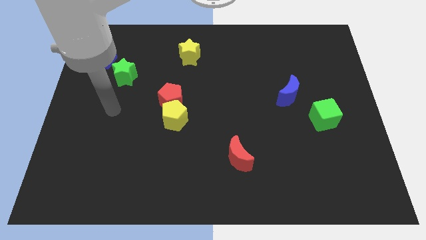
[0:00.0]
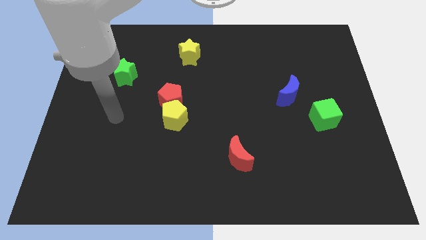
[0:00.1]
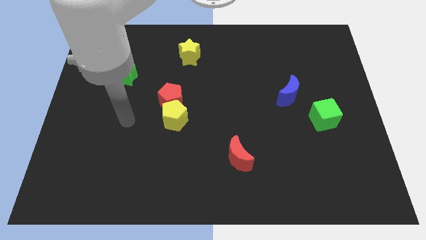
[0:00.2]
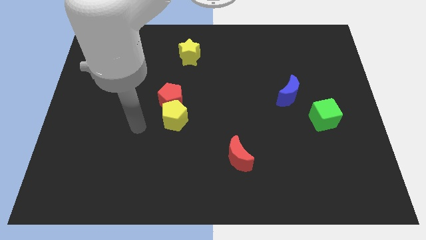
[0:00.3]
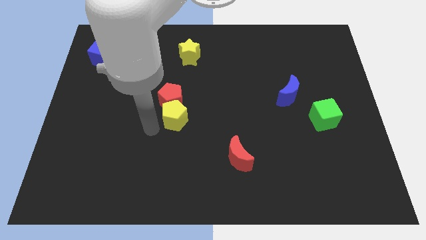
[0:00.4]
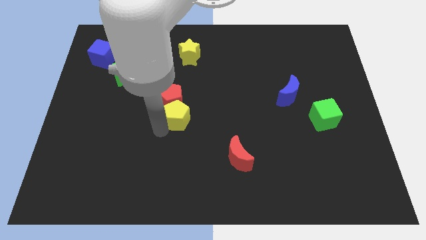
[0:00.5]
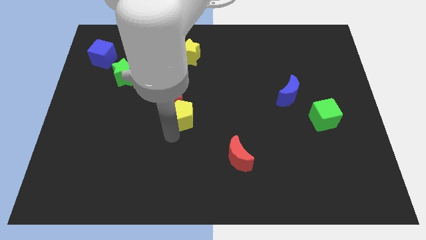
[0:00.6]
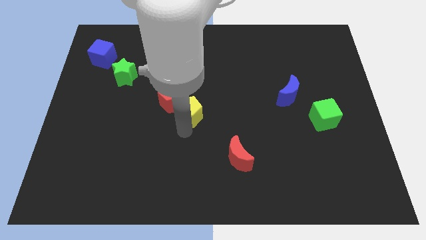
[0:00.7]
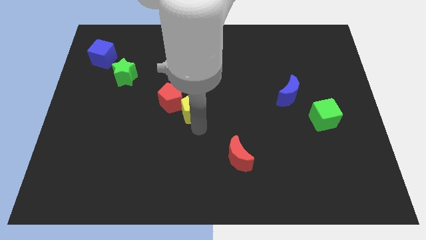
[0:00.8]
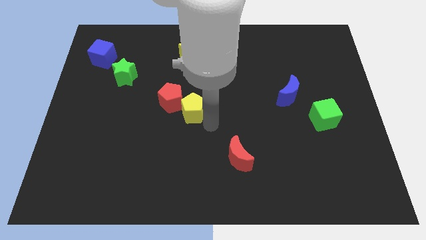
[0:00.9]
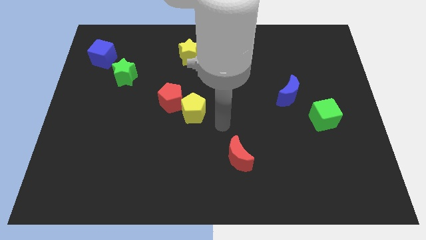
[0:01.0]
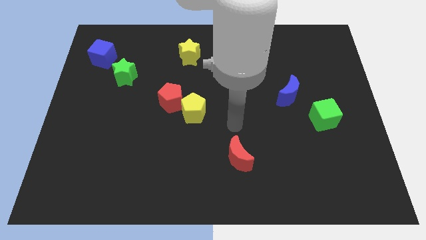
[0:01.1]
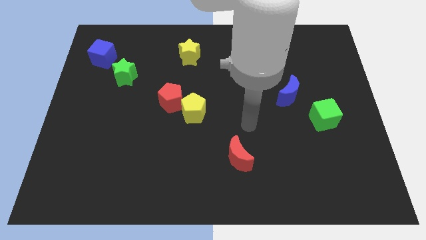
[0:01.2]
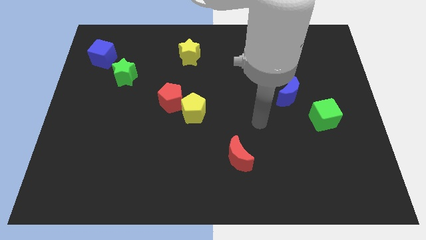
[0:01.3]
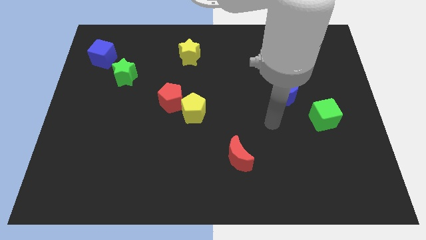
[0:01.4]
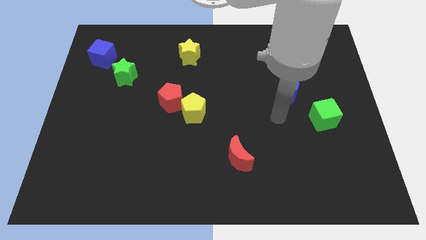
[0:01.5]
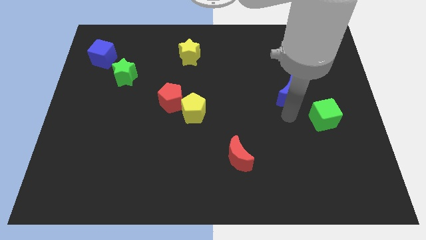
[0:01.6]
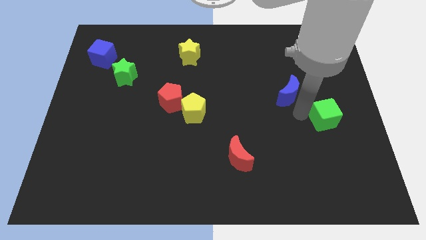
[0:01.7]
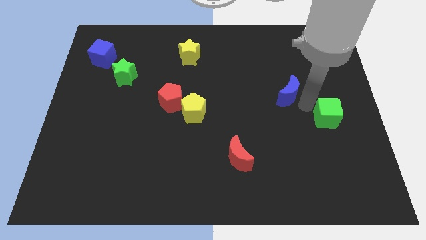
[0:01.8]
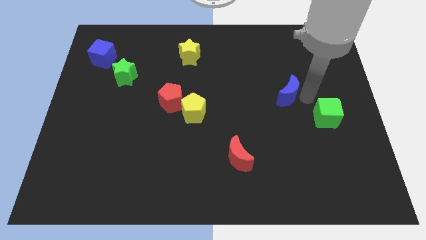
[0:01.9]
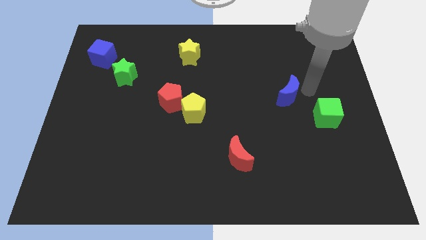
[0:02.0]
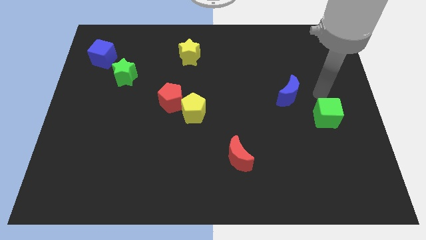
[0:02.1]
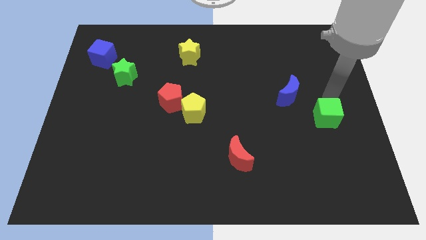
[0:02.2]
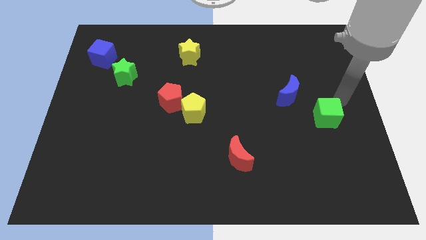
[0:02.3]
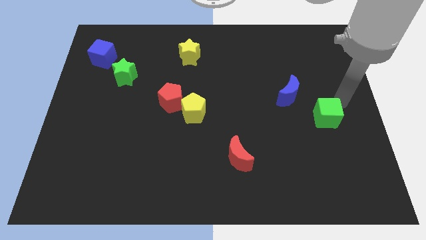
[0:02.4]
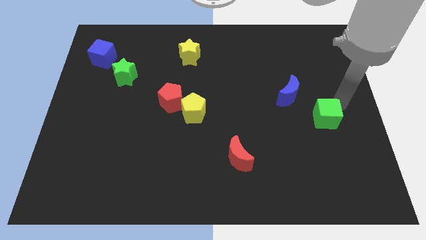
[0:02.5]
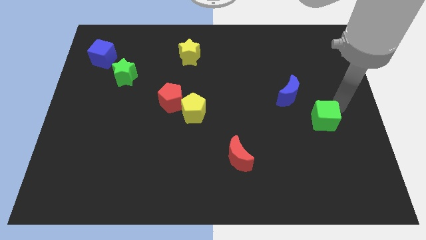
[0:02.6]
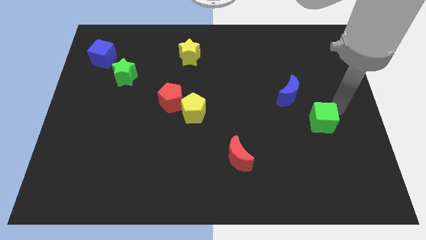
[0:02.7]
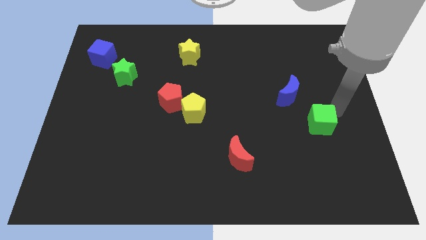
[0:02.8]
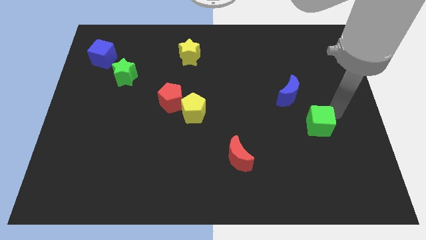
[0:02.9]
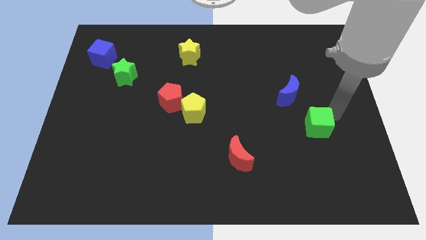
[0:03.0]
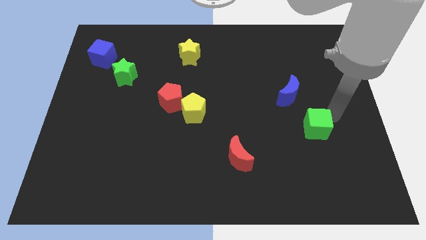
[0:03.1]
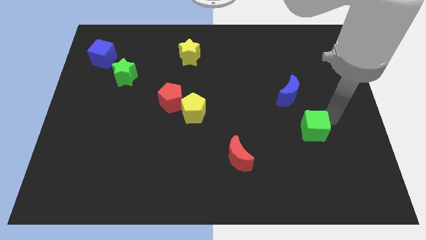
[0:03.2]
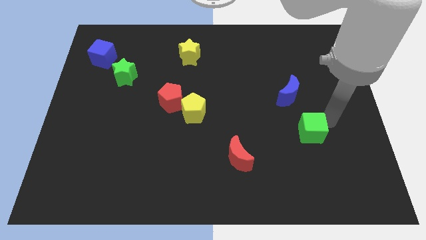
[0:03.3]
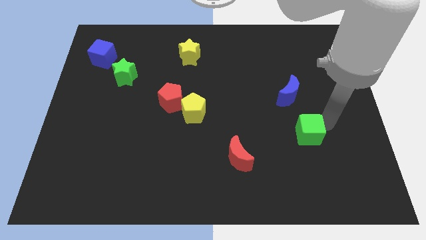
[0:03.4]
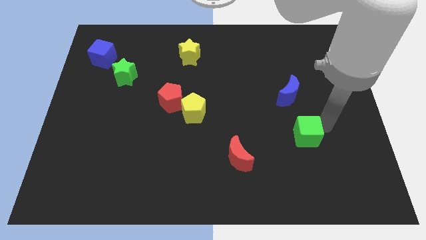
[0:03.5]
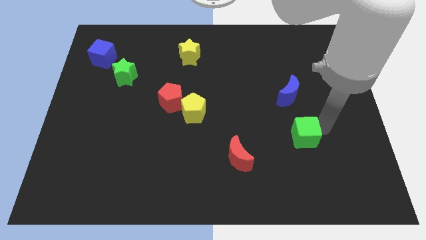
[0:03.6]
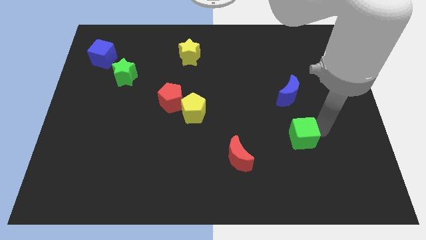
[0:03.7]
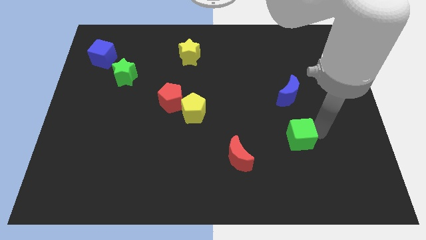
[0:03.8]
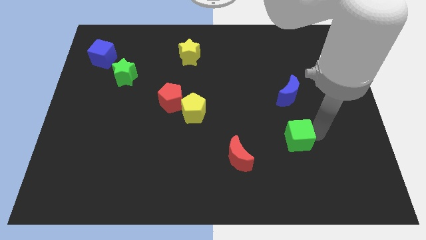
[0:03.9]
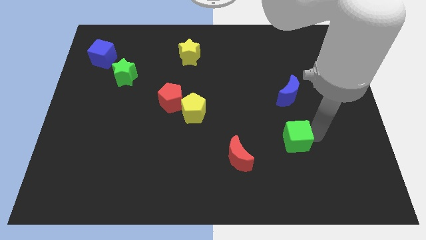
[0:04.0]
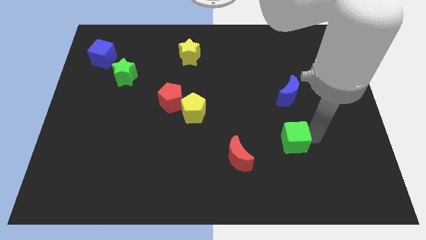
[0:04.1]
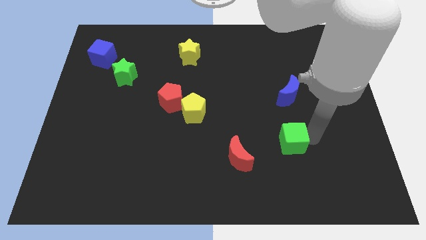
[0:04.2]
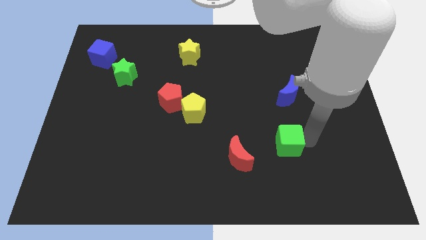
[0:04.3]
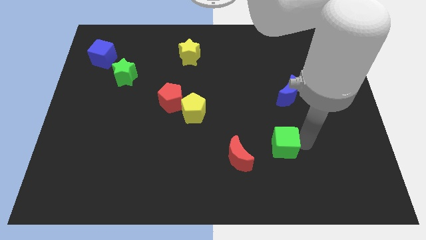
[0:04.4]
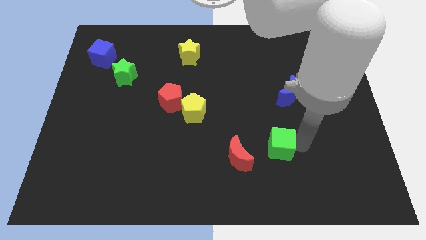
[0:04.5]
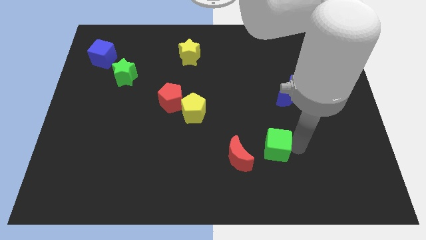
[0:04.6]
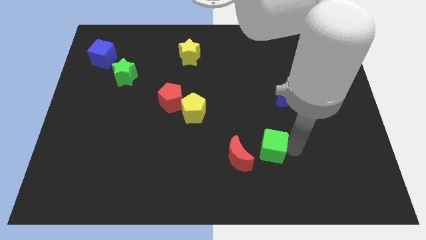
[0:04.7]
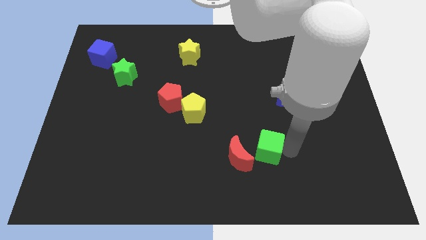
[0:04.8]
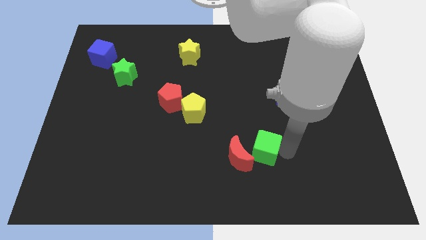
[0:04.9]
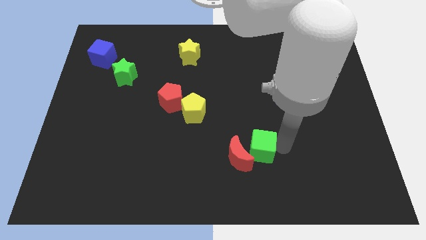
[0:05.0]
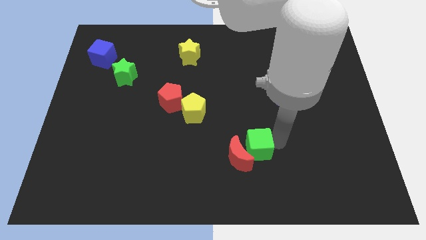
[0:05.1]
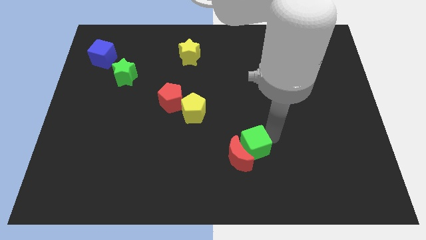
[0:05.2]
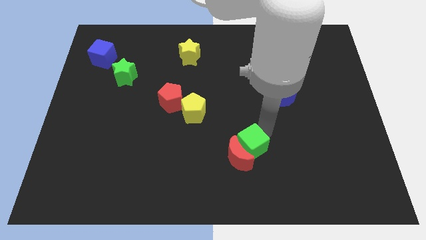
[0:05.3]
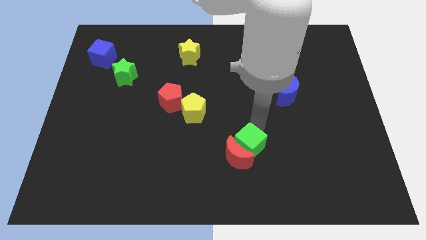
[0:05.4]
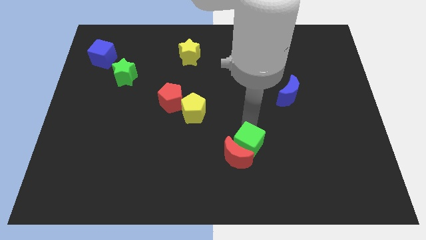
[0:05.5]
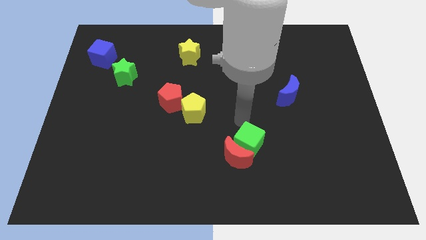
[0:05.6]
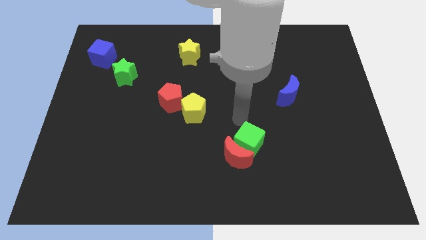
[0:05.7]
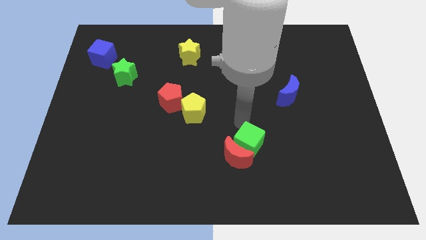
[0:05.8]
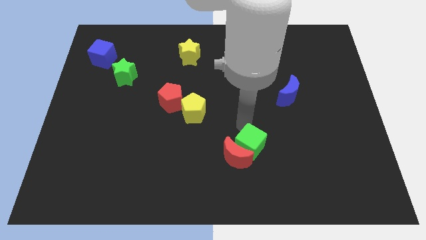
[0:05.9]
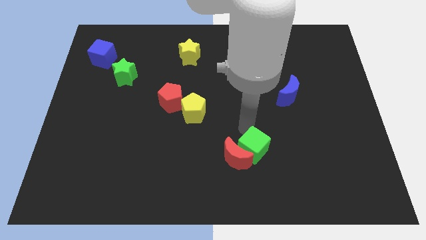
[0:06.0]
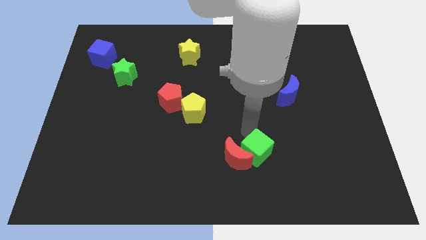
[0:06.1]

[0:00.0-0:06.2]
put the green cube to the bottom right side of the red moon
